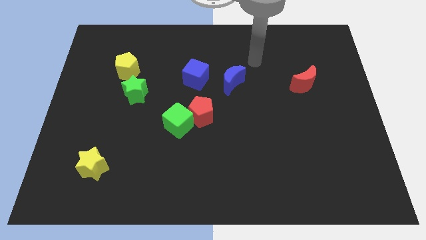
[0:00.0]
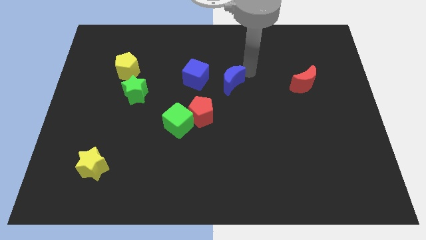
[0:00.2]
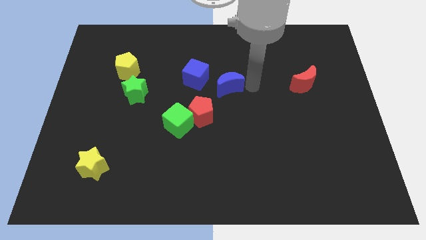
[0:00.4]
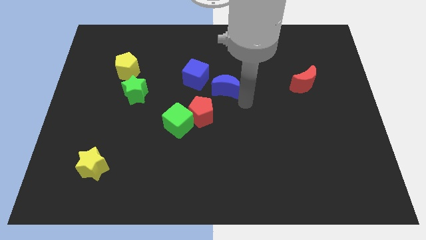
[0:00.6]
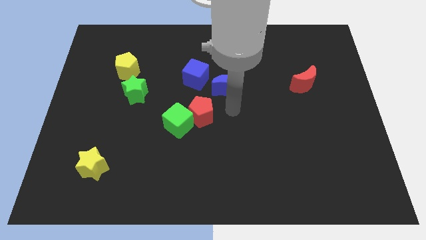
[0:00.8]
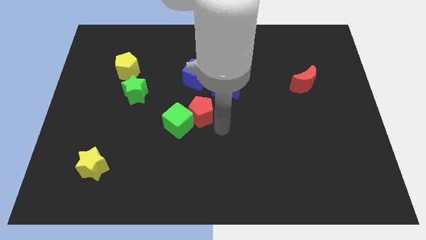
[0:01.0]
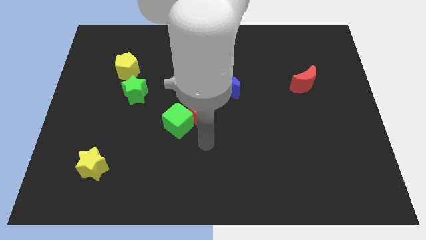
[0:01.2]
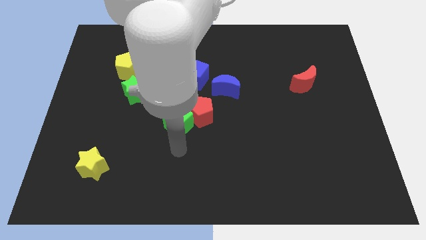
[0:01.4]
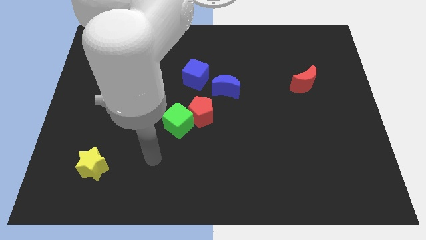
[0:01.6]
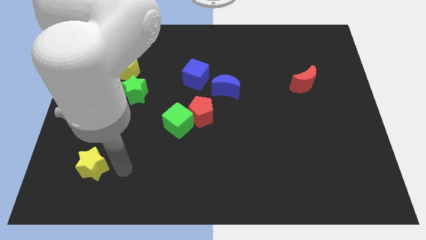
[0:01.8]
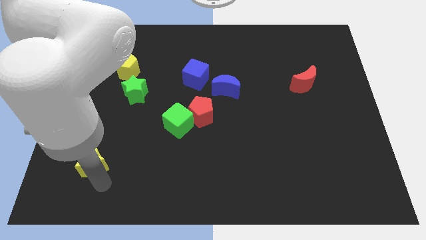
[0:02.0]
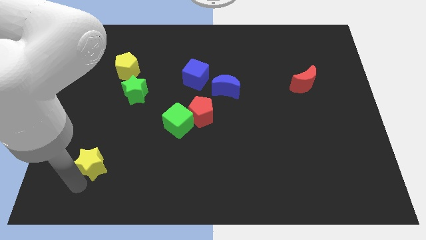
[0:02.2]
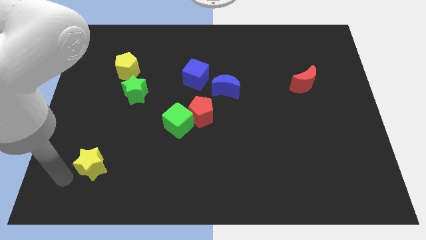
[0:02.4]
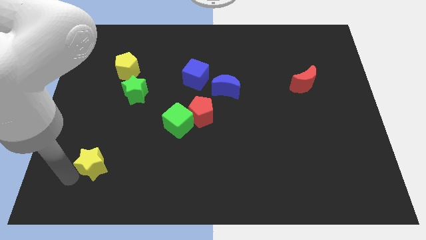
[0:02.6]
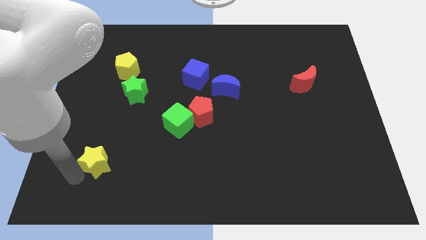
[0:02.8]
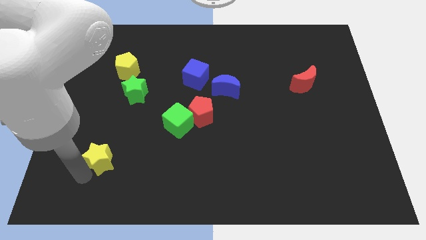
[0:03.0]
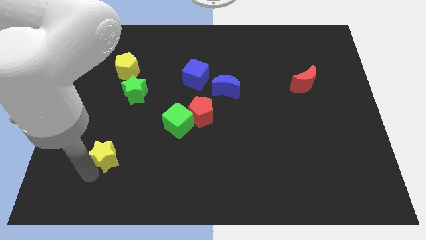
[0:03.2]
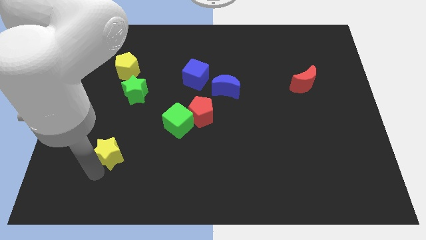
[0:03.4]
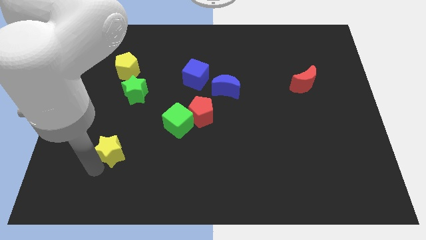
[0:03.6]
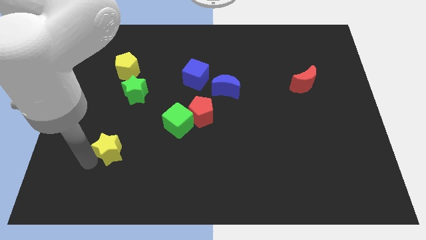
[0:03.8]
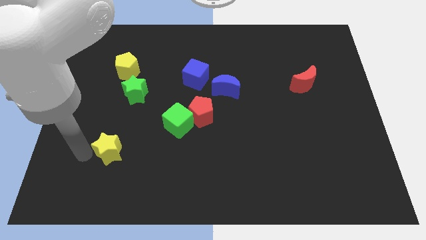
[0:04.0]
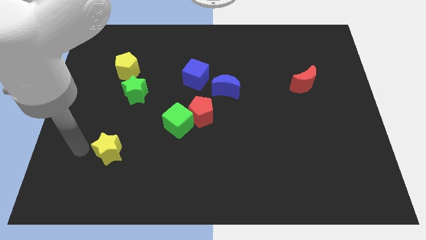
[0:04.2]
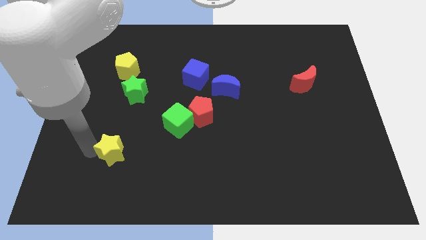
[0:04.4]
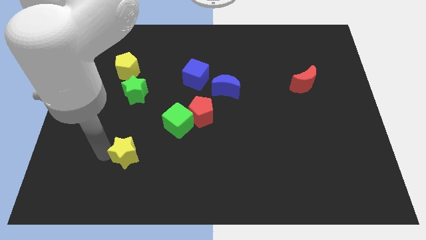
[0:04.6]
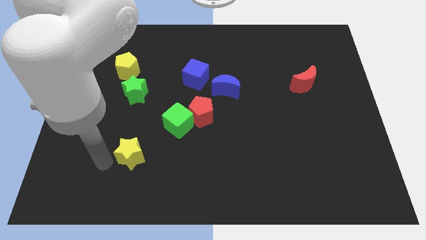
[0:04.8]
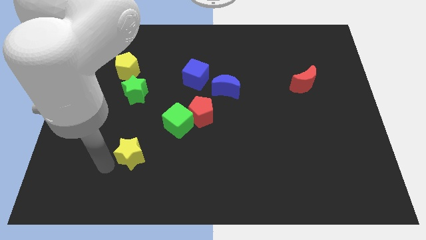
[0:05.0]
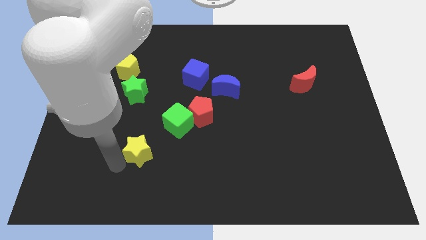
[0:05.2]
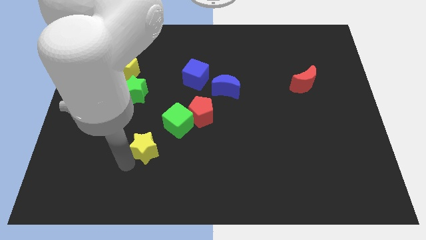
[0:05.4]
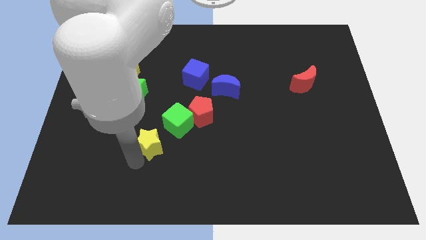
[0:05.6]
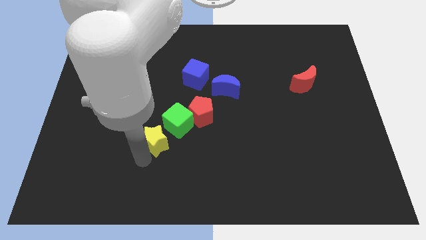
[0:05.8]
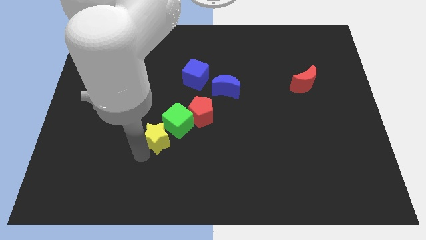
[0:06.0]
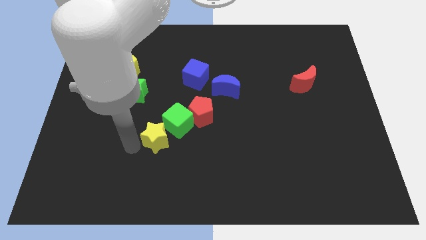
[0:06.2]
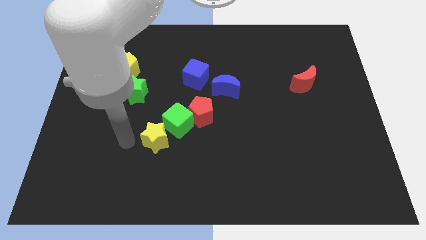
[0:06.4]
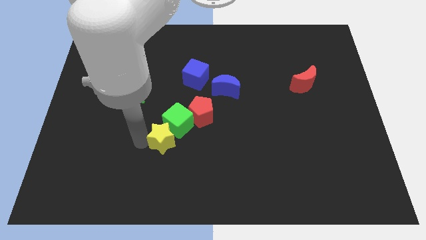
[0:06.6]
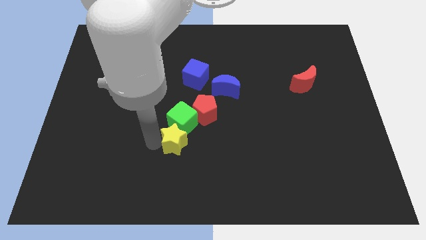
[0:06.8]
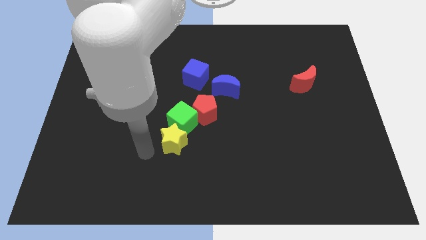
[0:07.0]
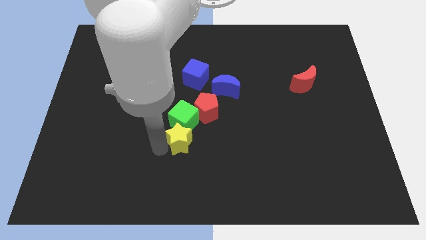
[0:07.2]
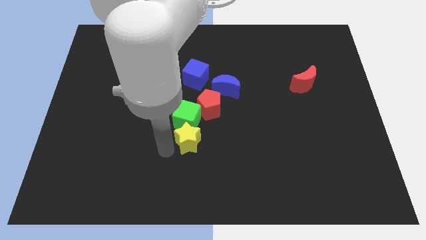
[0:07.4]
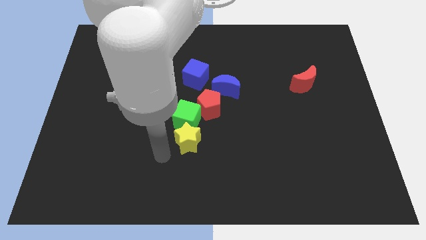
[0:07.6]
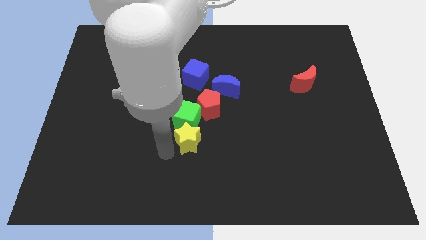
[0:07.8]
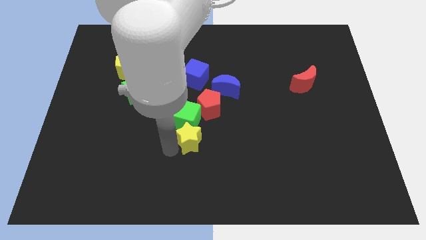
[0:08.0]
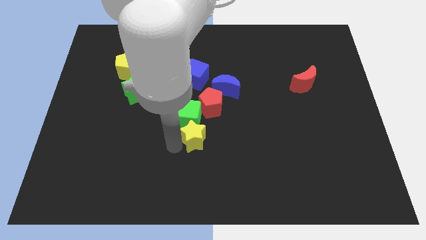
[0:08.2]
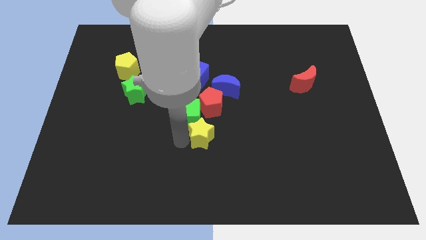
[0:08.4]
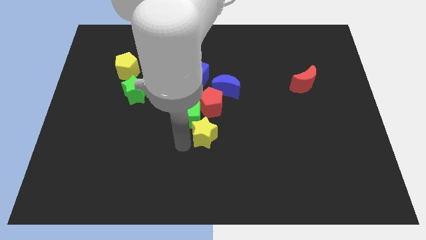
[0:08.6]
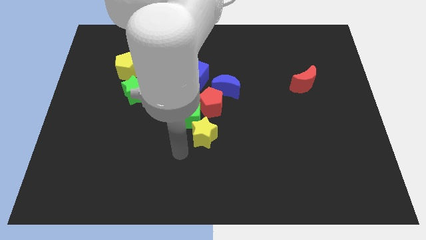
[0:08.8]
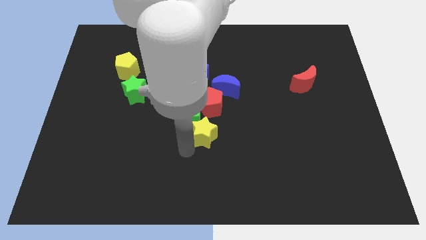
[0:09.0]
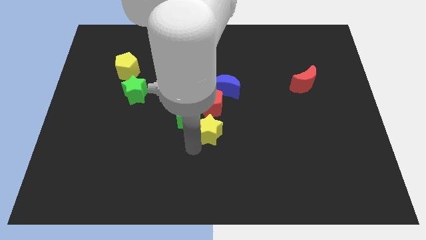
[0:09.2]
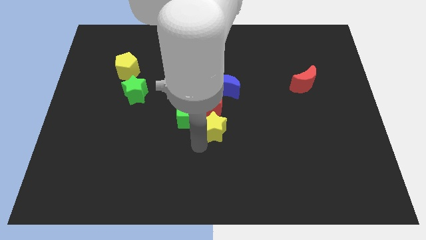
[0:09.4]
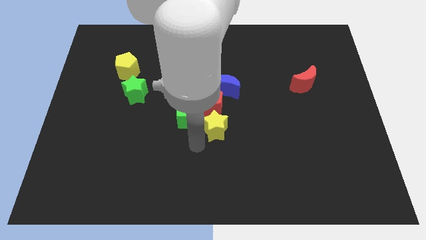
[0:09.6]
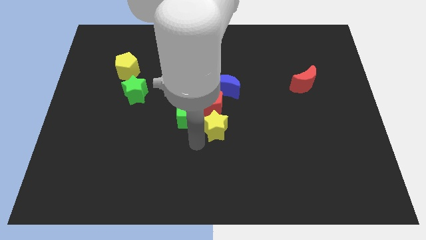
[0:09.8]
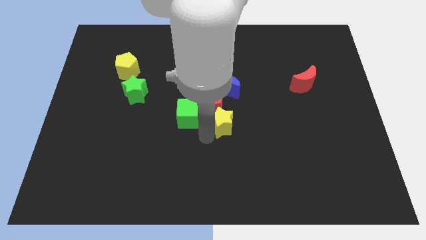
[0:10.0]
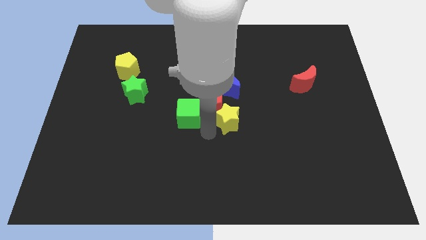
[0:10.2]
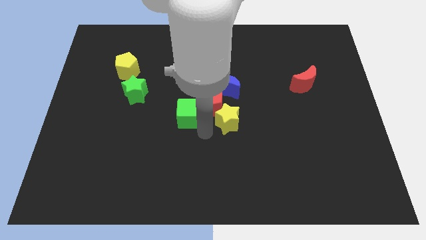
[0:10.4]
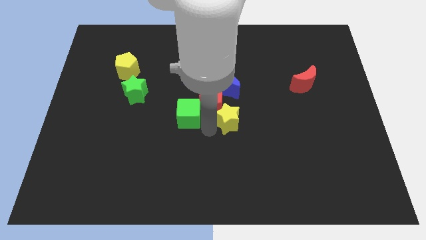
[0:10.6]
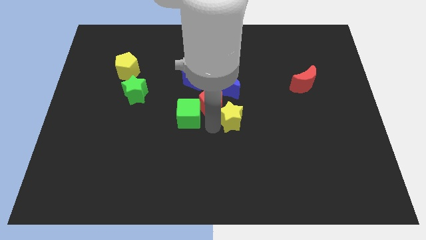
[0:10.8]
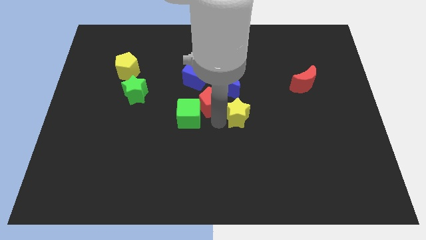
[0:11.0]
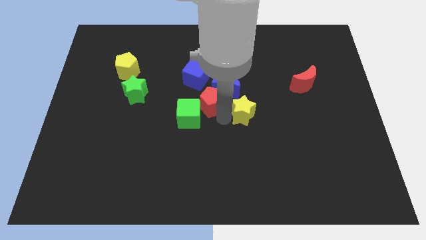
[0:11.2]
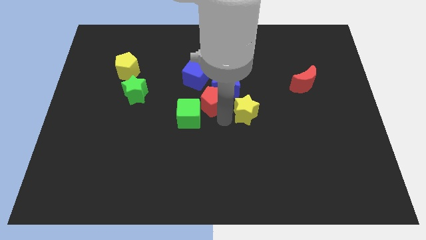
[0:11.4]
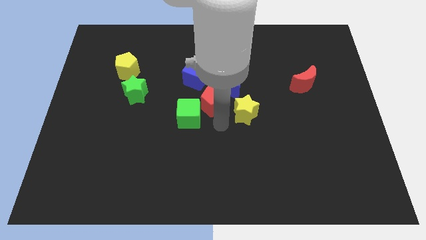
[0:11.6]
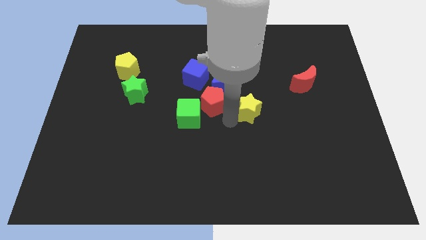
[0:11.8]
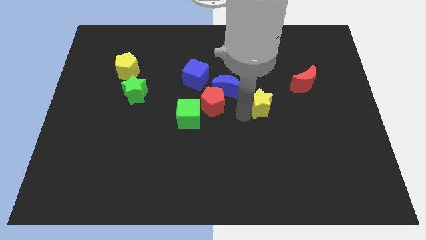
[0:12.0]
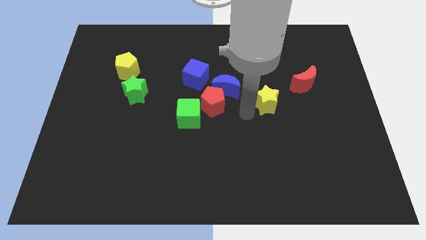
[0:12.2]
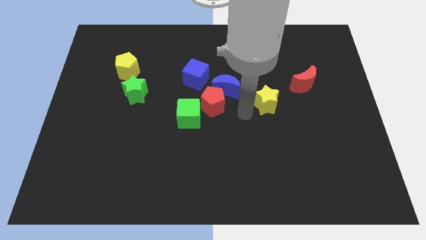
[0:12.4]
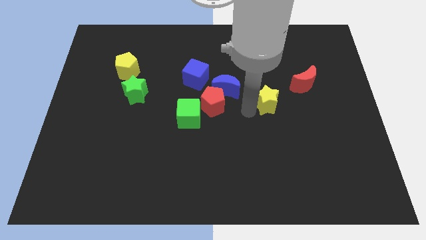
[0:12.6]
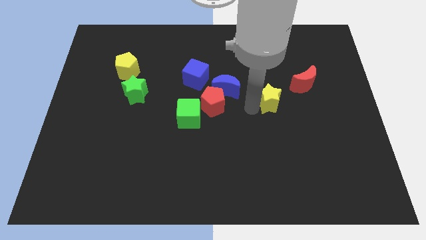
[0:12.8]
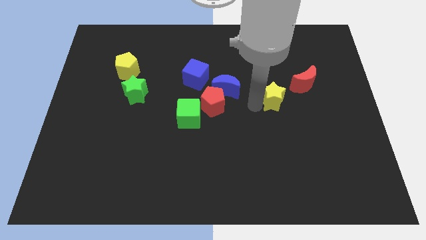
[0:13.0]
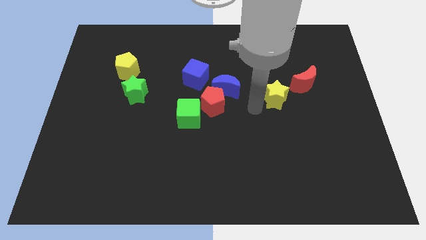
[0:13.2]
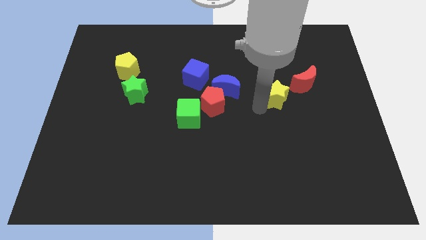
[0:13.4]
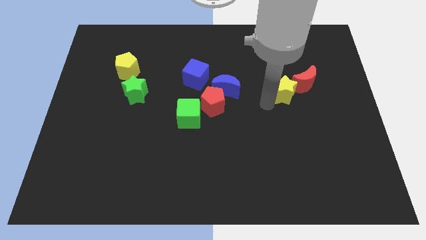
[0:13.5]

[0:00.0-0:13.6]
move the yellow star close to the red moon
